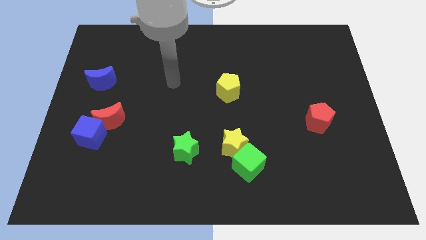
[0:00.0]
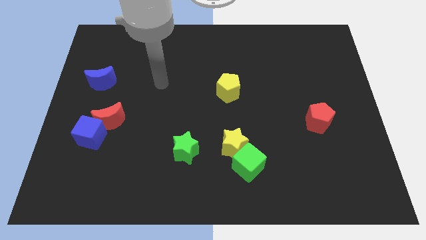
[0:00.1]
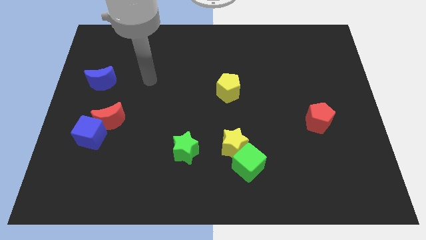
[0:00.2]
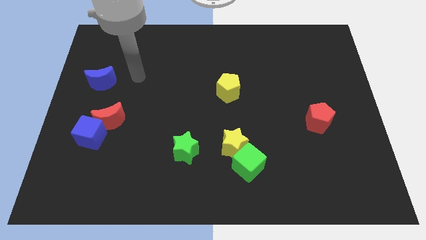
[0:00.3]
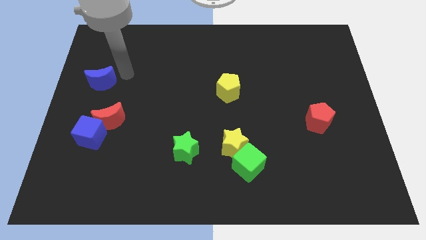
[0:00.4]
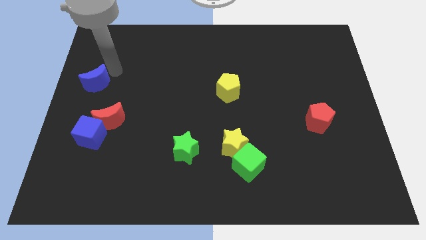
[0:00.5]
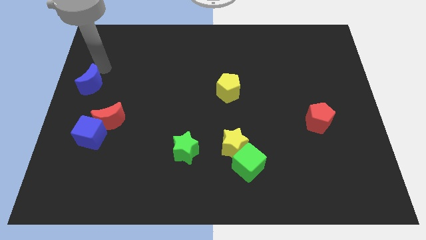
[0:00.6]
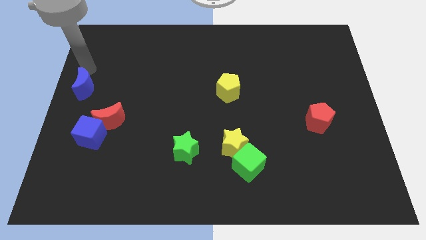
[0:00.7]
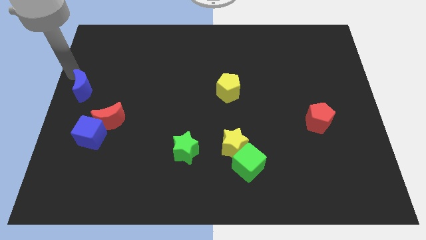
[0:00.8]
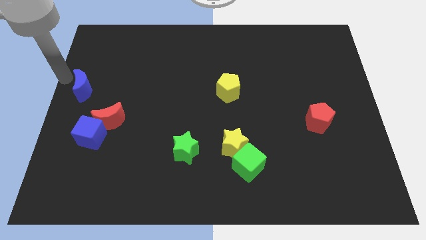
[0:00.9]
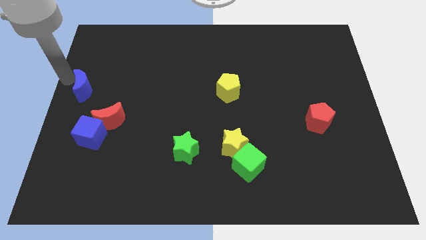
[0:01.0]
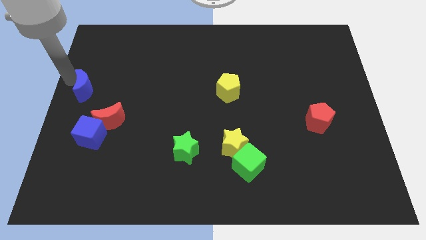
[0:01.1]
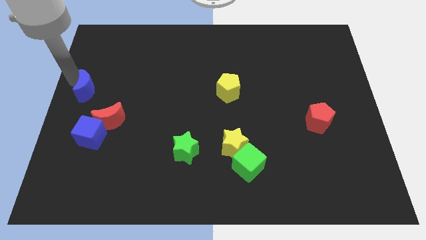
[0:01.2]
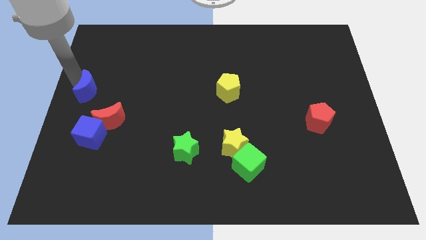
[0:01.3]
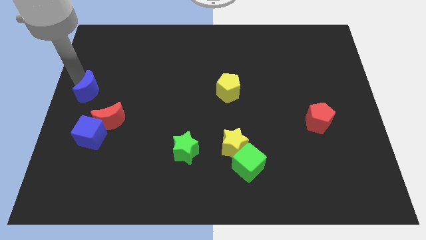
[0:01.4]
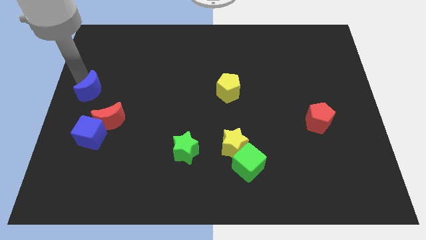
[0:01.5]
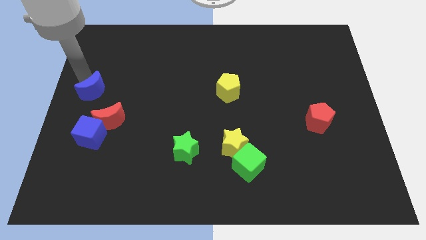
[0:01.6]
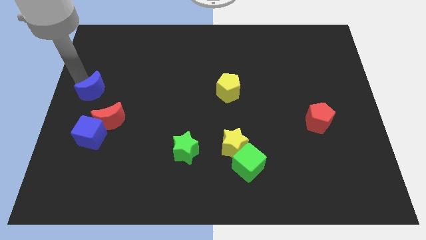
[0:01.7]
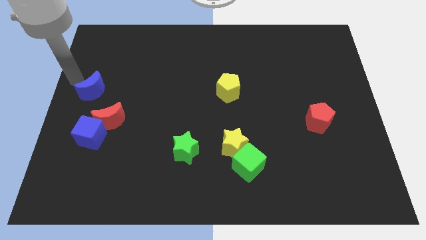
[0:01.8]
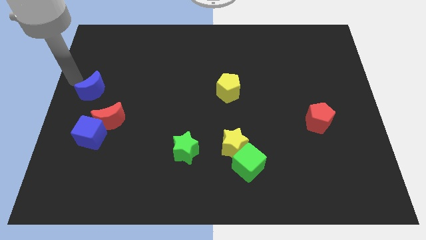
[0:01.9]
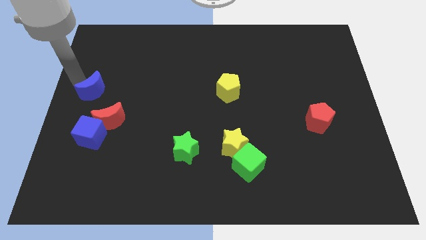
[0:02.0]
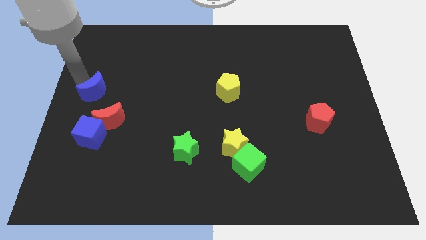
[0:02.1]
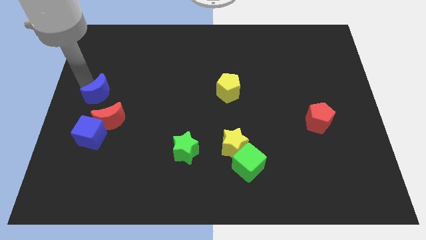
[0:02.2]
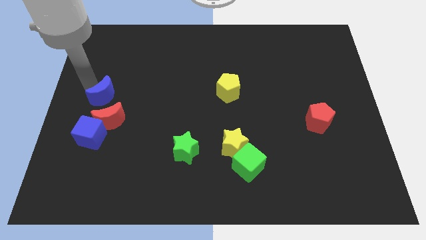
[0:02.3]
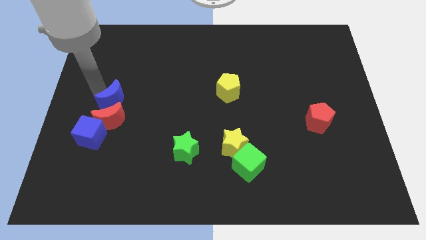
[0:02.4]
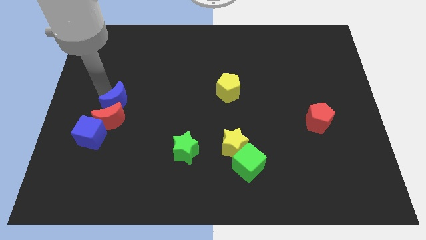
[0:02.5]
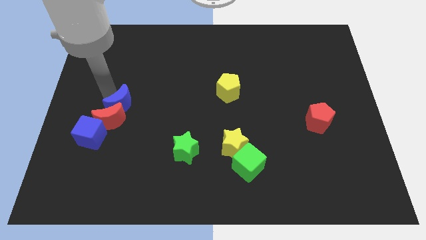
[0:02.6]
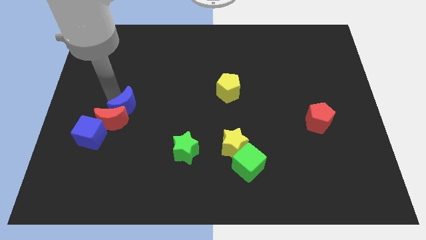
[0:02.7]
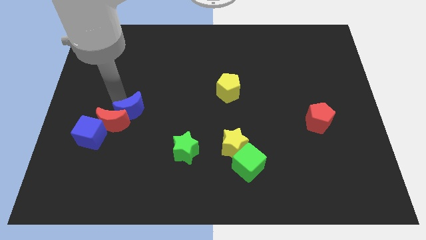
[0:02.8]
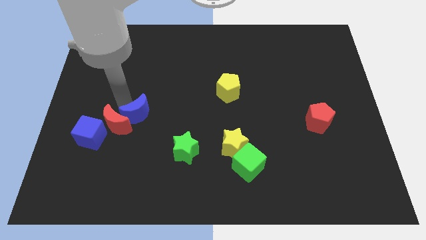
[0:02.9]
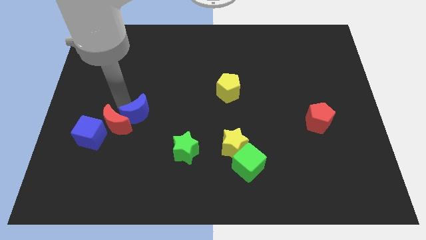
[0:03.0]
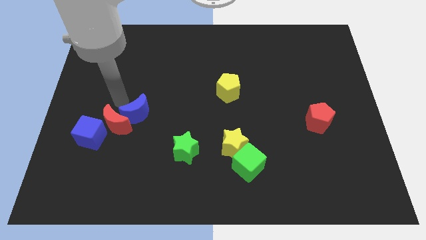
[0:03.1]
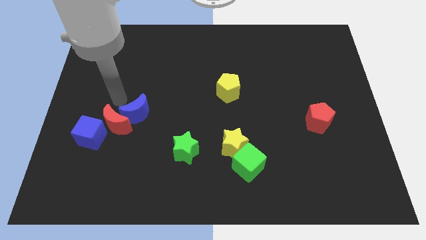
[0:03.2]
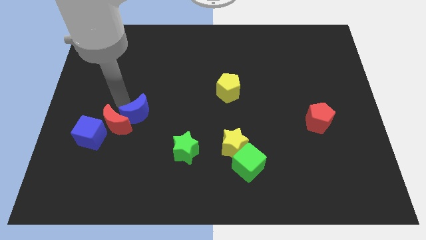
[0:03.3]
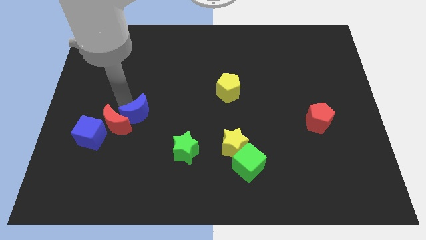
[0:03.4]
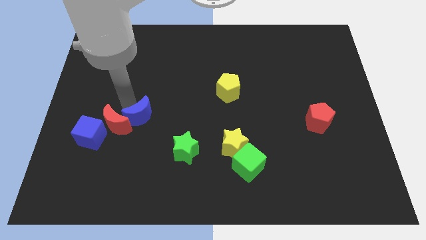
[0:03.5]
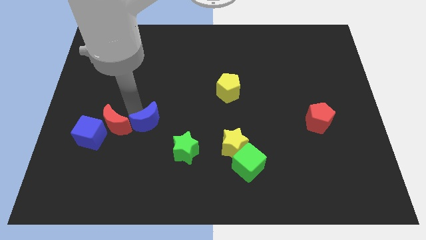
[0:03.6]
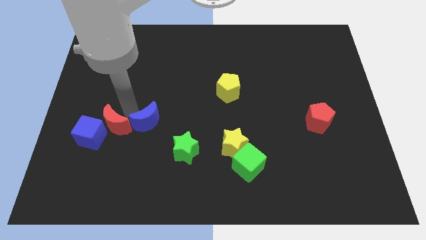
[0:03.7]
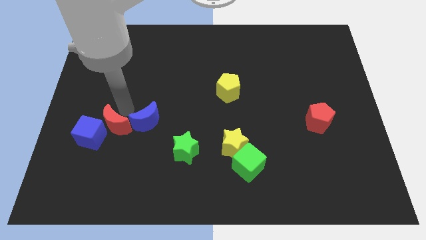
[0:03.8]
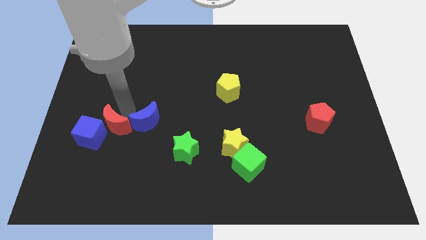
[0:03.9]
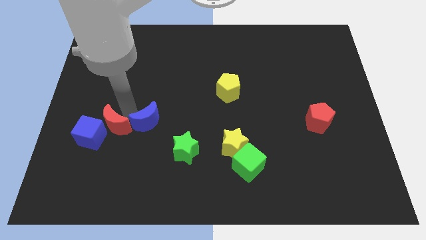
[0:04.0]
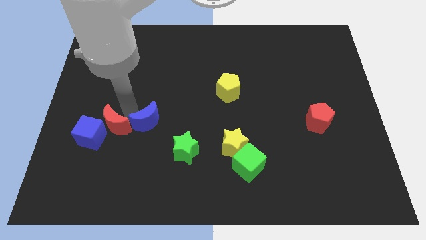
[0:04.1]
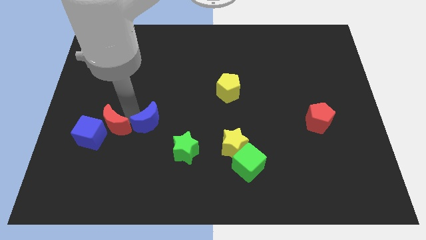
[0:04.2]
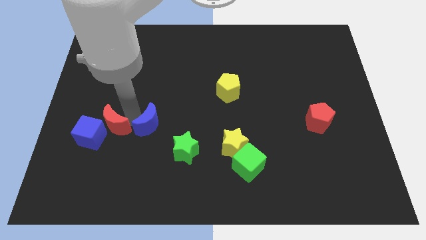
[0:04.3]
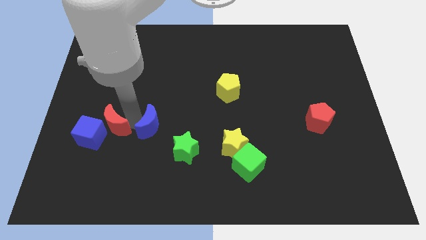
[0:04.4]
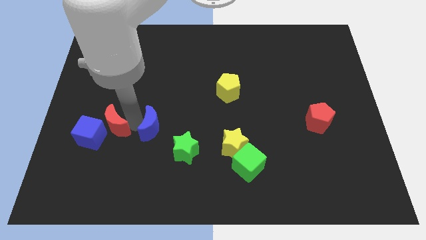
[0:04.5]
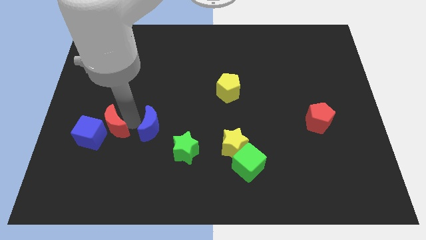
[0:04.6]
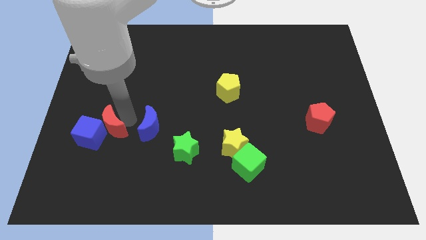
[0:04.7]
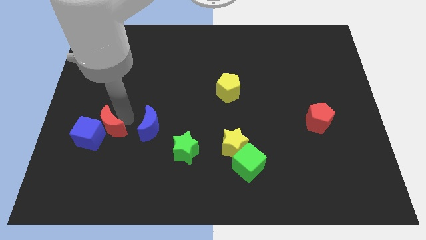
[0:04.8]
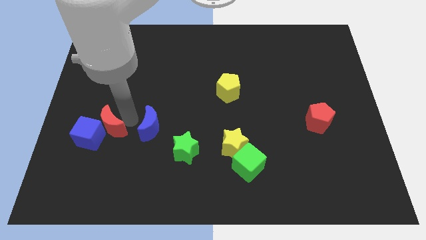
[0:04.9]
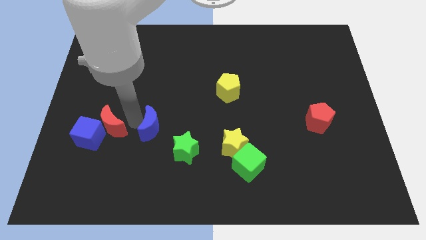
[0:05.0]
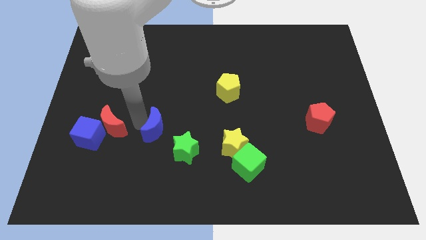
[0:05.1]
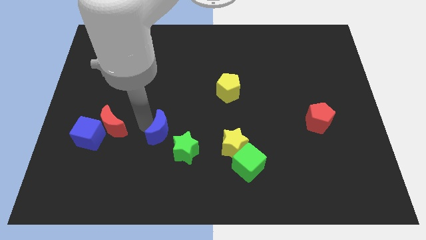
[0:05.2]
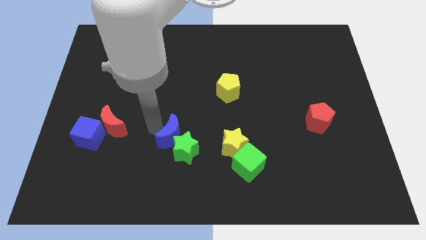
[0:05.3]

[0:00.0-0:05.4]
put the blue moon close to the green star

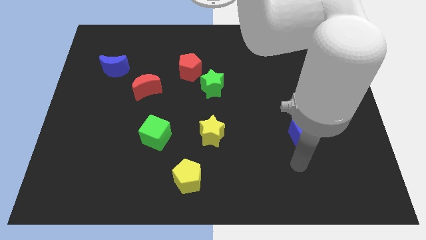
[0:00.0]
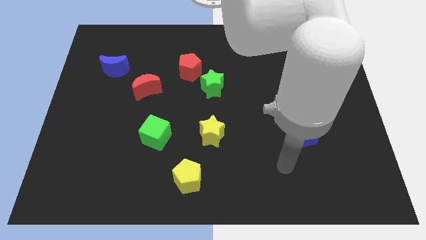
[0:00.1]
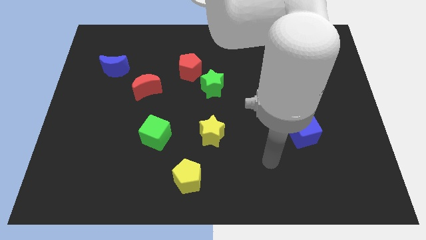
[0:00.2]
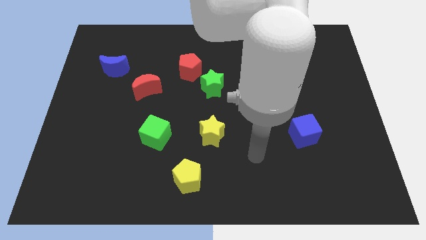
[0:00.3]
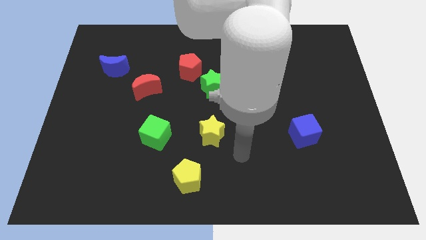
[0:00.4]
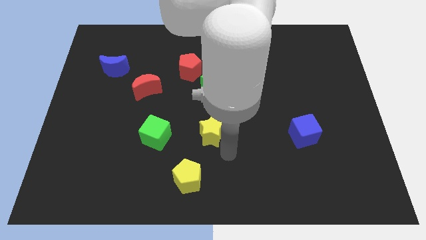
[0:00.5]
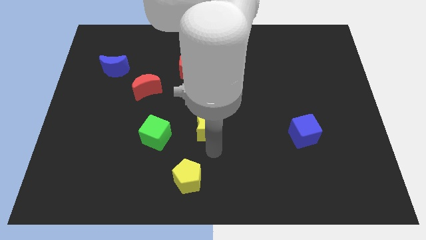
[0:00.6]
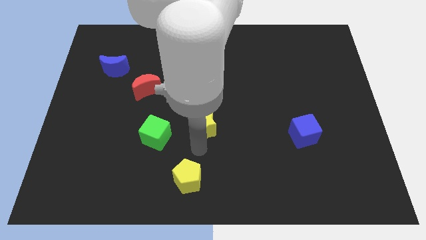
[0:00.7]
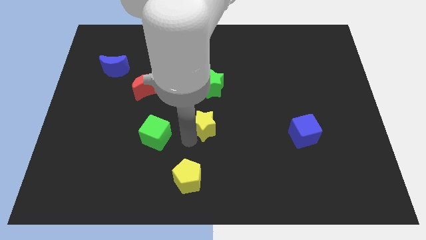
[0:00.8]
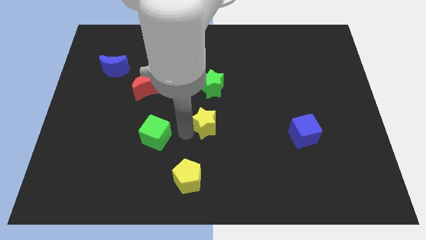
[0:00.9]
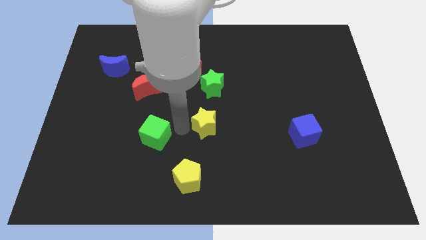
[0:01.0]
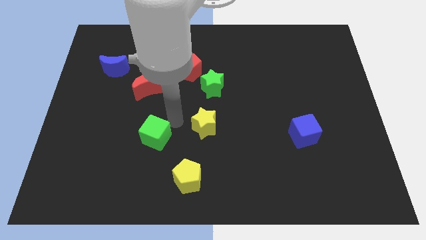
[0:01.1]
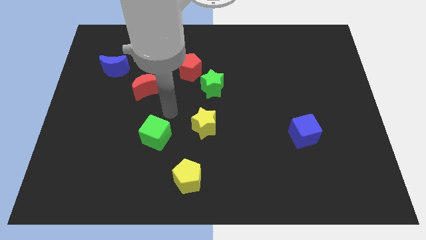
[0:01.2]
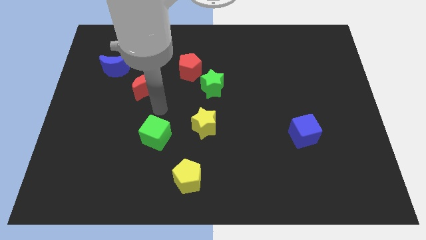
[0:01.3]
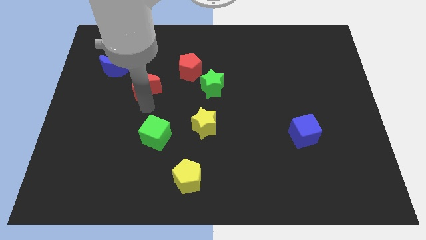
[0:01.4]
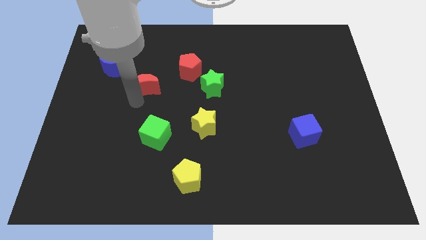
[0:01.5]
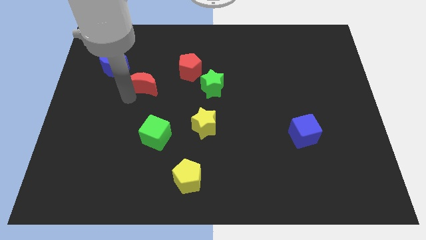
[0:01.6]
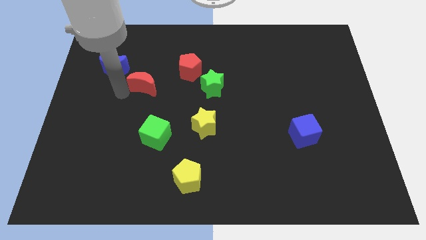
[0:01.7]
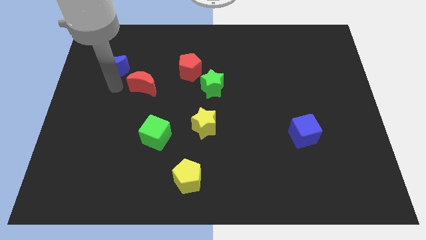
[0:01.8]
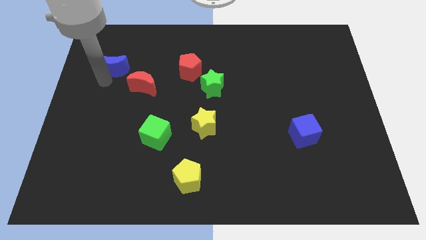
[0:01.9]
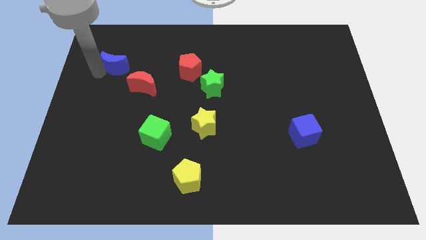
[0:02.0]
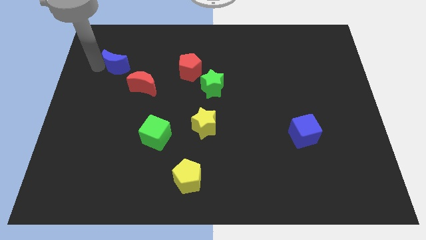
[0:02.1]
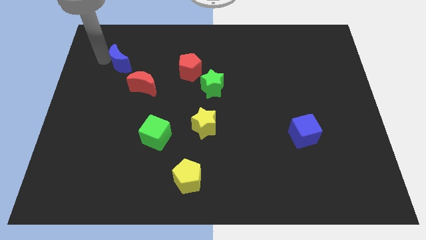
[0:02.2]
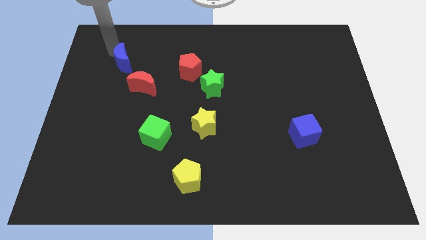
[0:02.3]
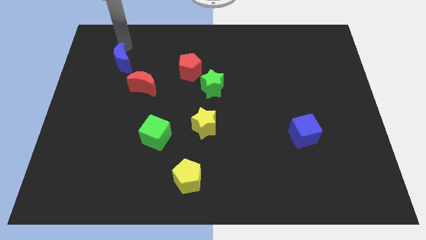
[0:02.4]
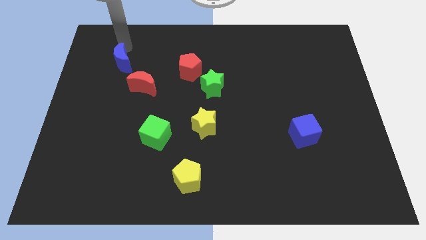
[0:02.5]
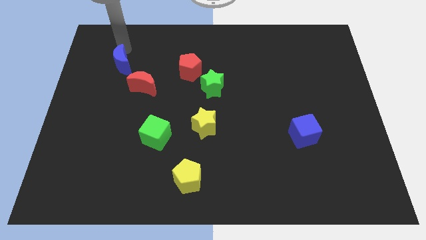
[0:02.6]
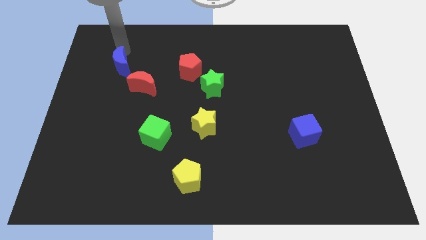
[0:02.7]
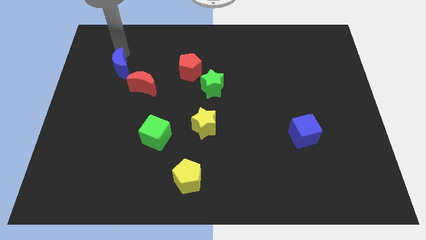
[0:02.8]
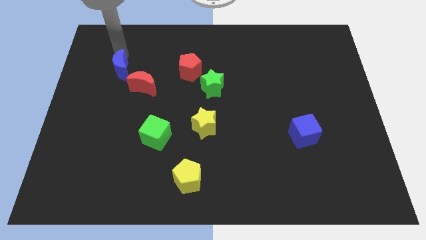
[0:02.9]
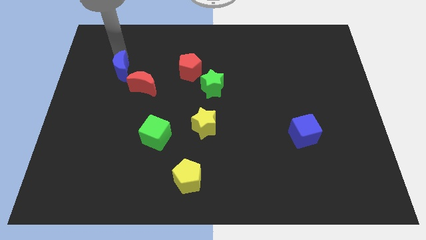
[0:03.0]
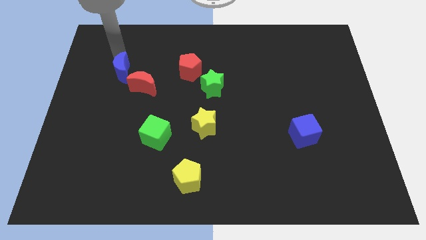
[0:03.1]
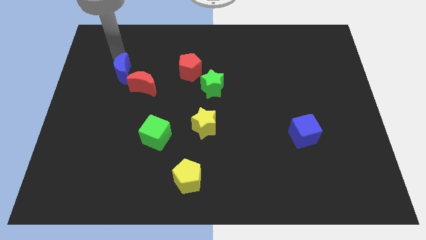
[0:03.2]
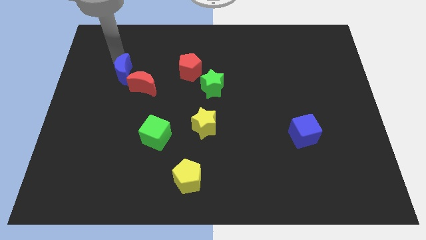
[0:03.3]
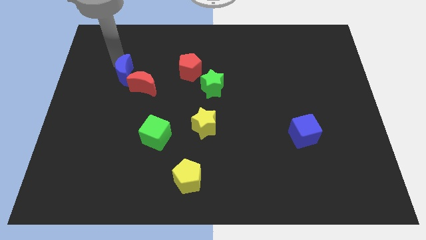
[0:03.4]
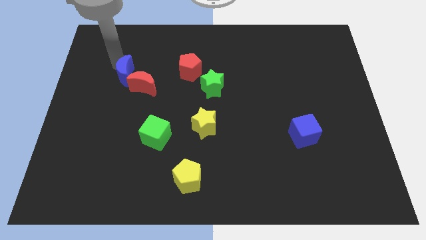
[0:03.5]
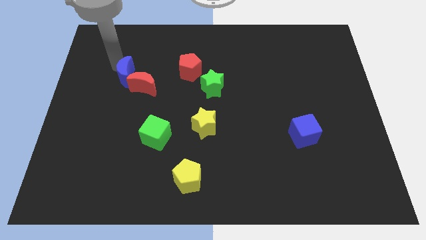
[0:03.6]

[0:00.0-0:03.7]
slide the blue moon towards the red moon
